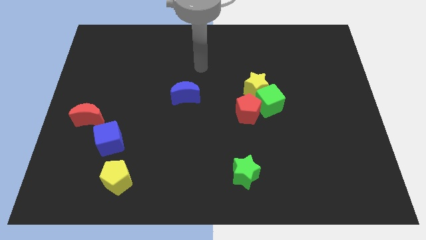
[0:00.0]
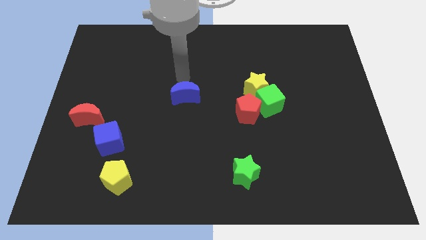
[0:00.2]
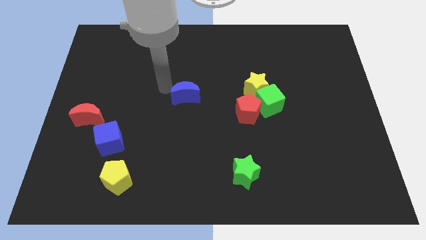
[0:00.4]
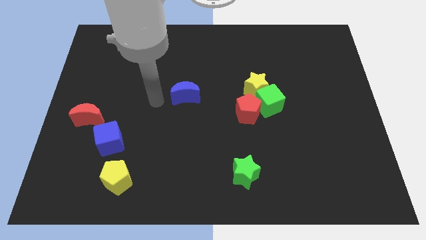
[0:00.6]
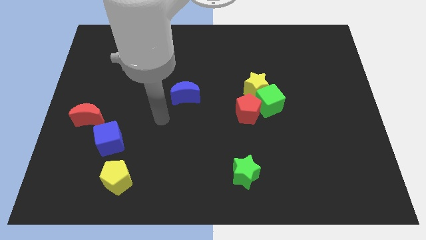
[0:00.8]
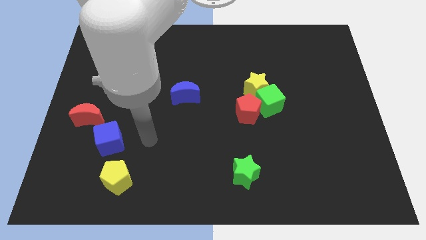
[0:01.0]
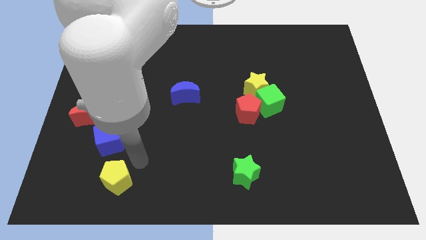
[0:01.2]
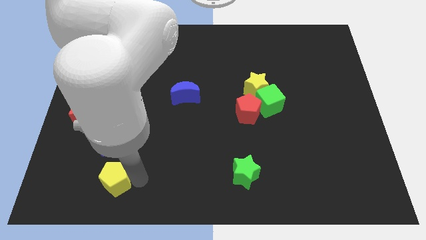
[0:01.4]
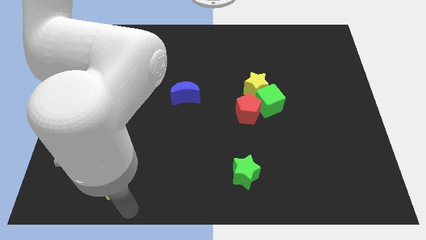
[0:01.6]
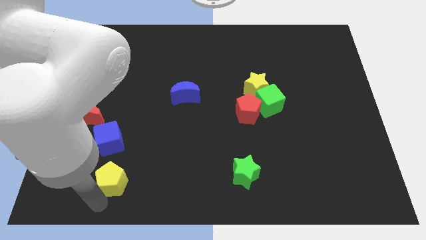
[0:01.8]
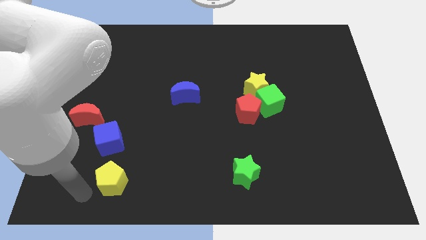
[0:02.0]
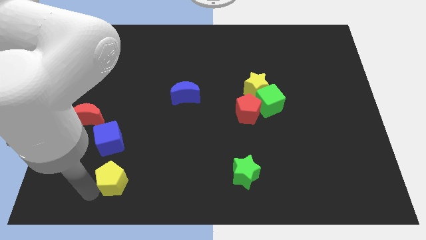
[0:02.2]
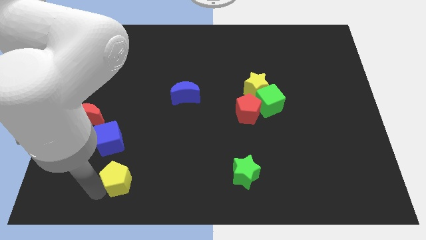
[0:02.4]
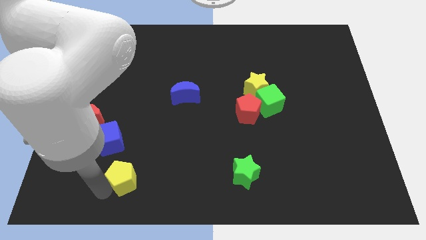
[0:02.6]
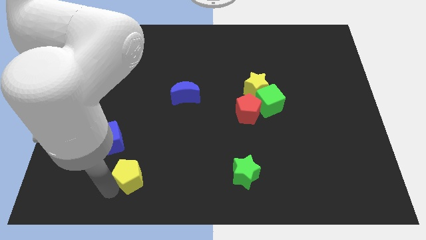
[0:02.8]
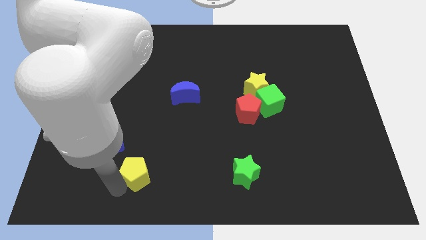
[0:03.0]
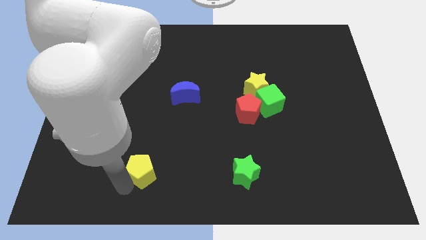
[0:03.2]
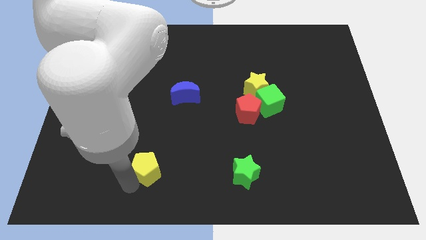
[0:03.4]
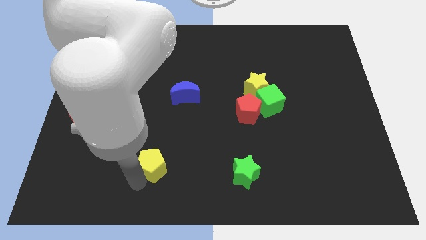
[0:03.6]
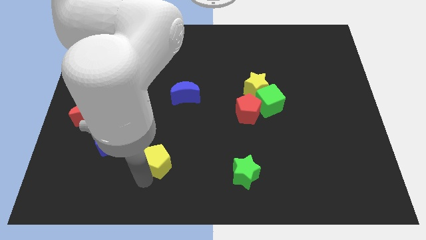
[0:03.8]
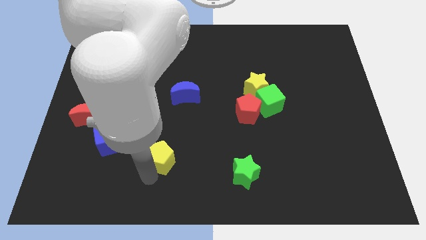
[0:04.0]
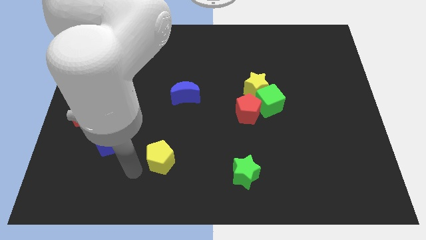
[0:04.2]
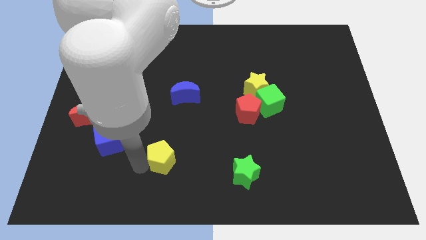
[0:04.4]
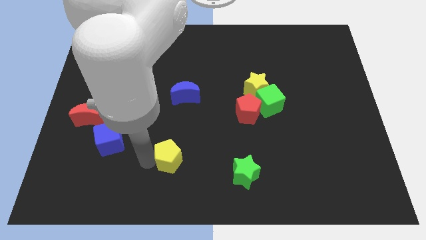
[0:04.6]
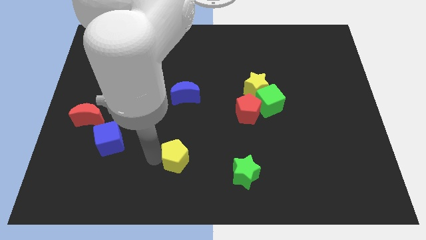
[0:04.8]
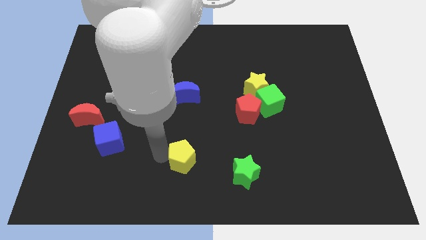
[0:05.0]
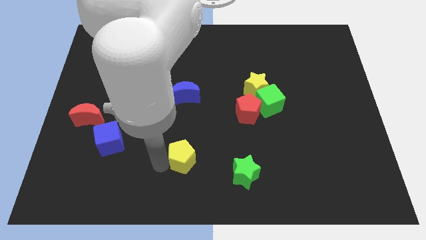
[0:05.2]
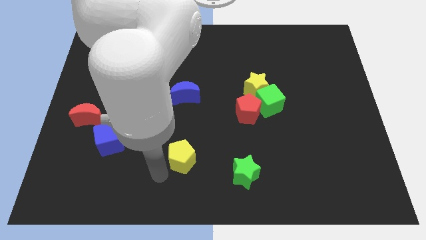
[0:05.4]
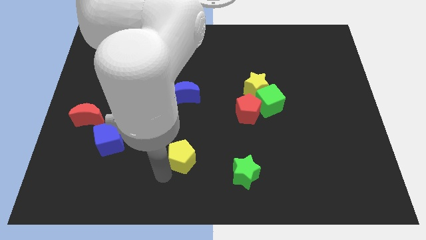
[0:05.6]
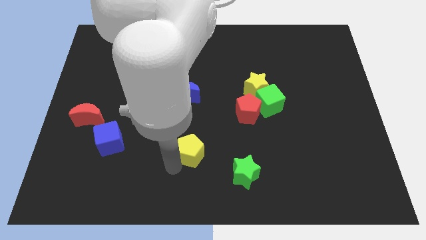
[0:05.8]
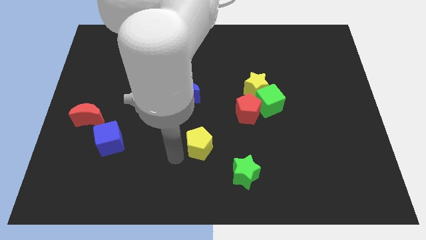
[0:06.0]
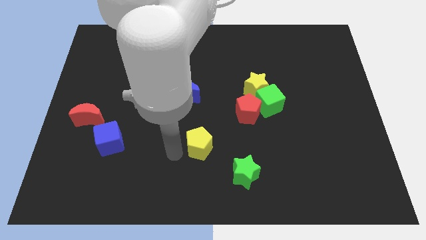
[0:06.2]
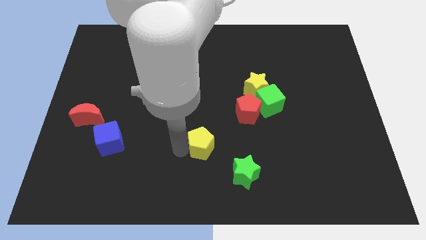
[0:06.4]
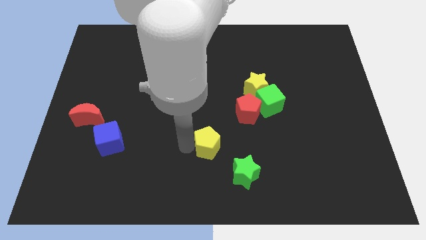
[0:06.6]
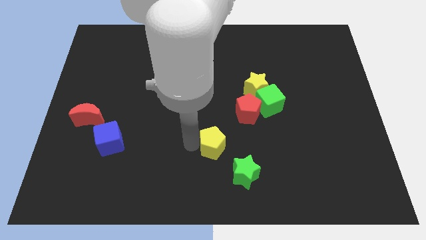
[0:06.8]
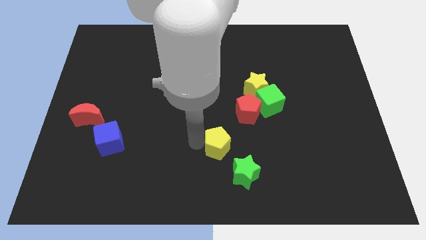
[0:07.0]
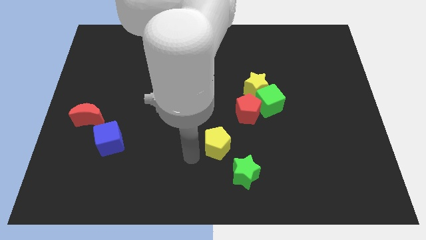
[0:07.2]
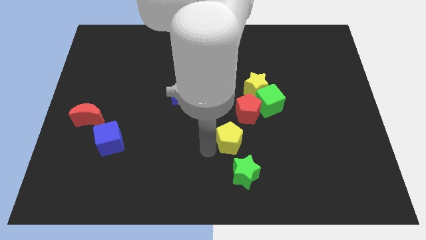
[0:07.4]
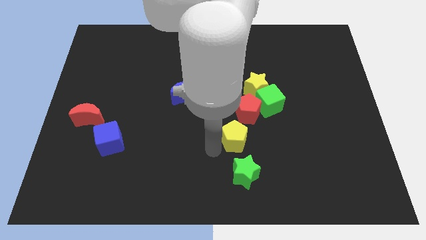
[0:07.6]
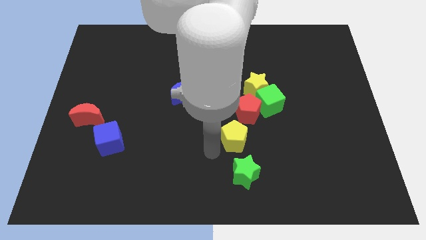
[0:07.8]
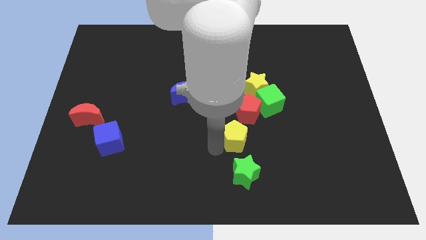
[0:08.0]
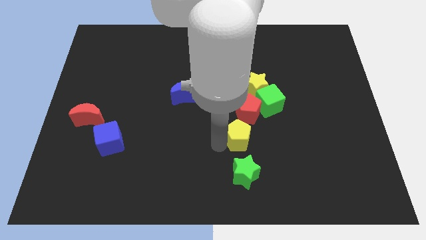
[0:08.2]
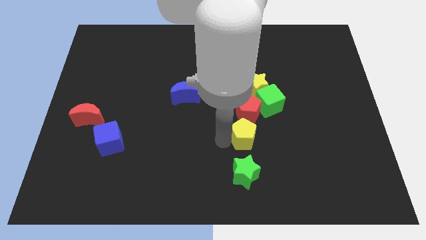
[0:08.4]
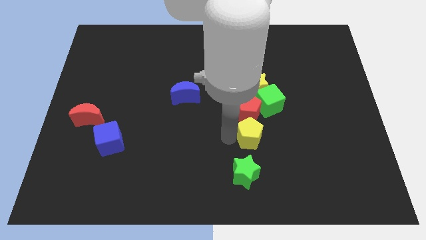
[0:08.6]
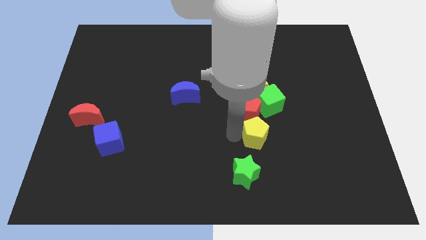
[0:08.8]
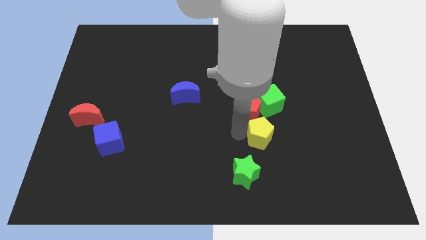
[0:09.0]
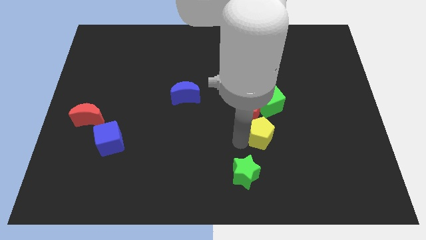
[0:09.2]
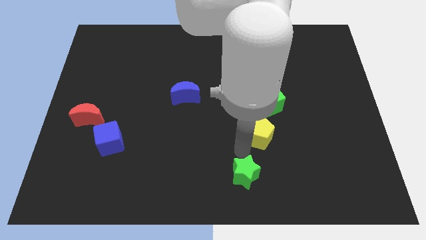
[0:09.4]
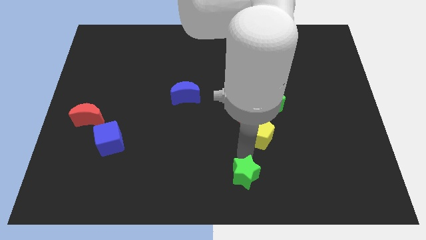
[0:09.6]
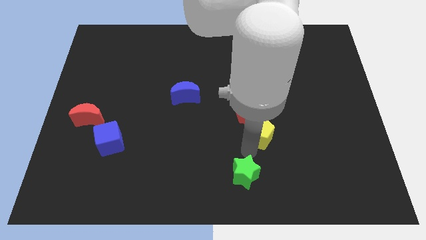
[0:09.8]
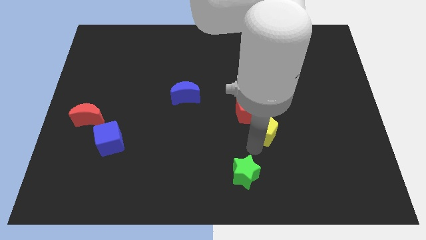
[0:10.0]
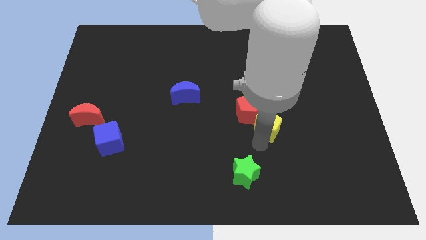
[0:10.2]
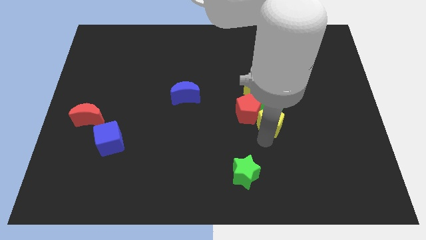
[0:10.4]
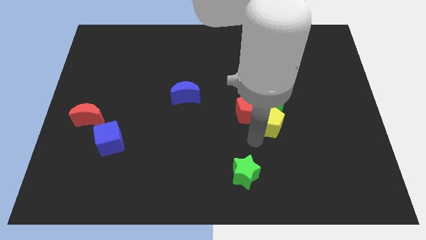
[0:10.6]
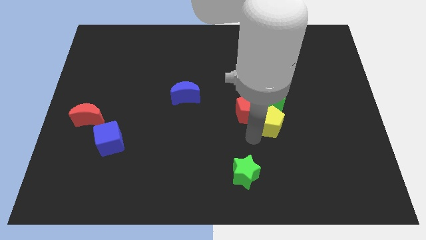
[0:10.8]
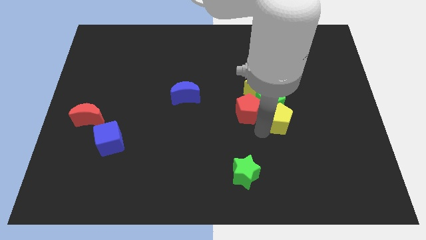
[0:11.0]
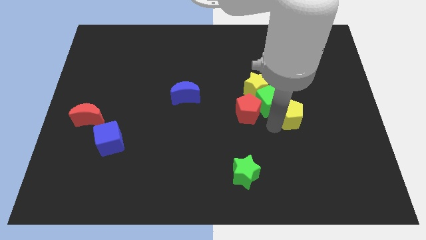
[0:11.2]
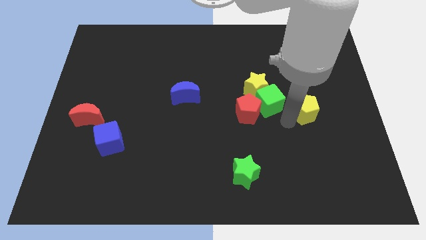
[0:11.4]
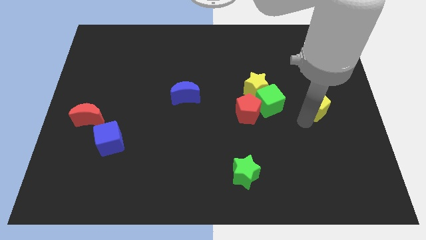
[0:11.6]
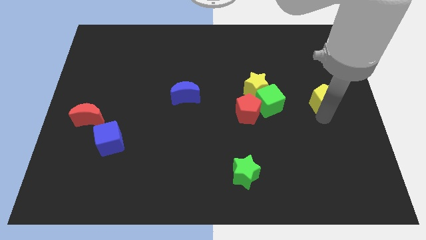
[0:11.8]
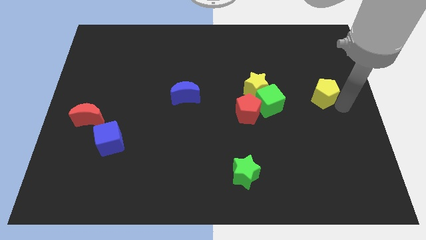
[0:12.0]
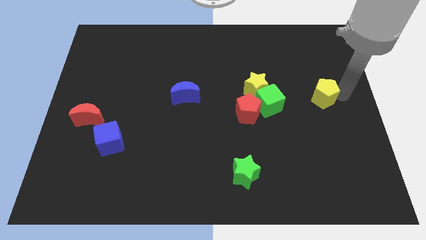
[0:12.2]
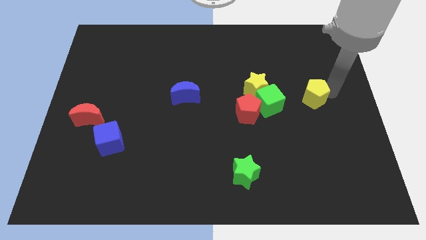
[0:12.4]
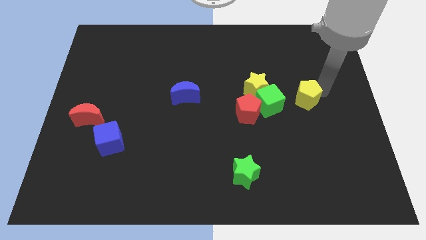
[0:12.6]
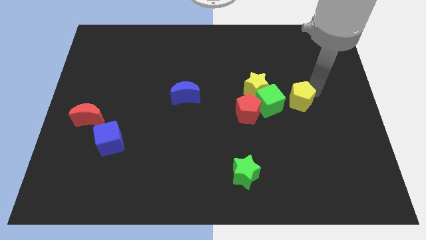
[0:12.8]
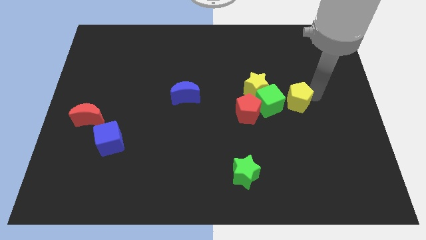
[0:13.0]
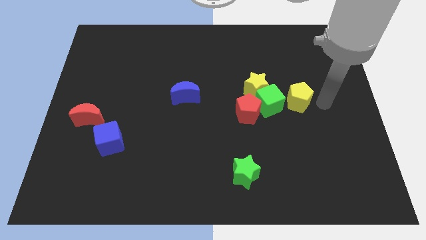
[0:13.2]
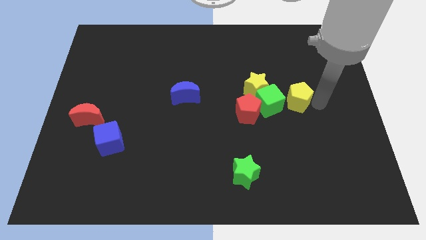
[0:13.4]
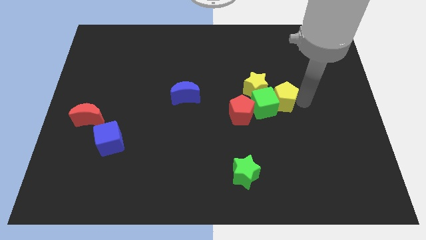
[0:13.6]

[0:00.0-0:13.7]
put the yellow pentagon diagonally up and to the right of the red pentagon
